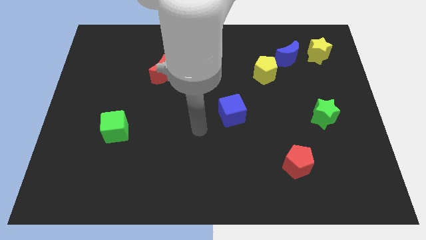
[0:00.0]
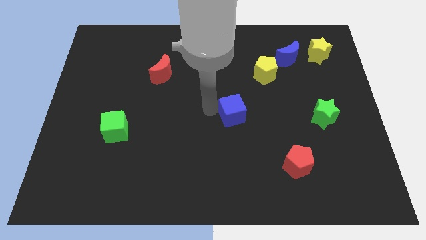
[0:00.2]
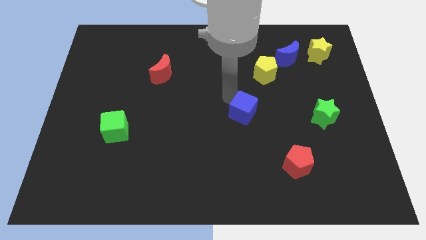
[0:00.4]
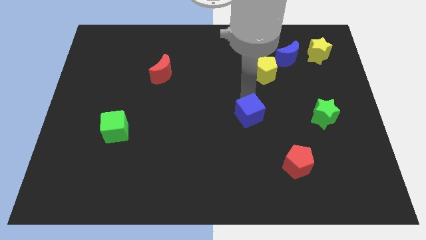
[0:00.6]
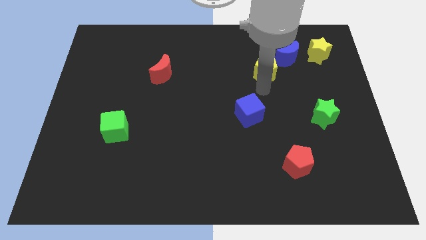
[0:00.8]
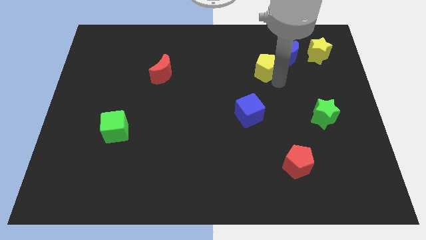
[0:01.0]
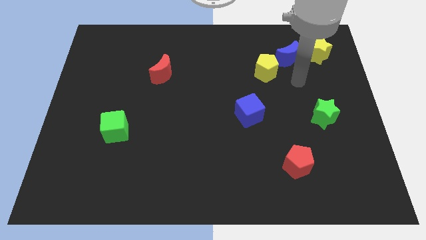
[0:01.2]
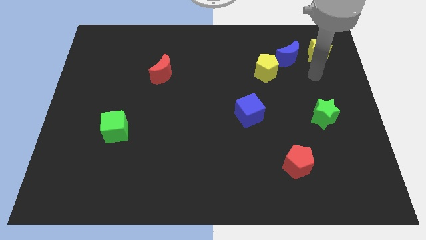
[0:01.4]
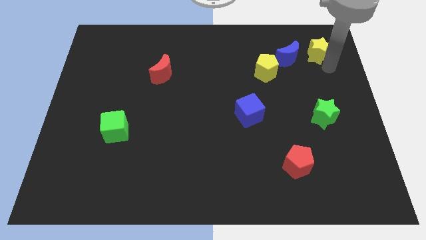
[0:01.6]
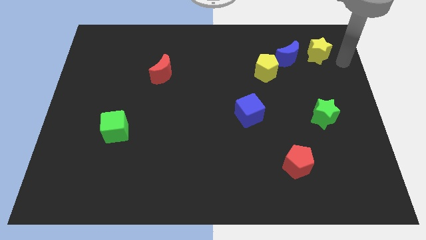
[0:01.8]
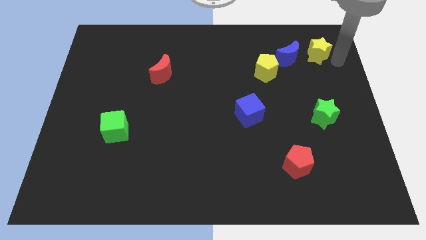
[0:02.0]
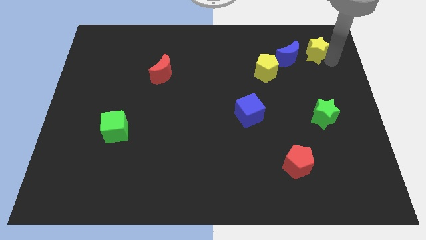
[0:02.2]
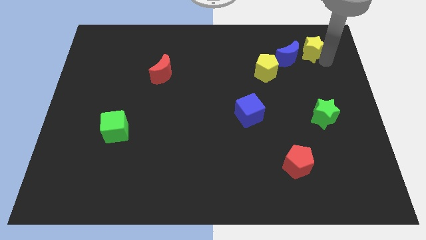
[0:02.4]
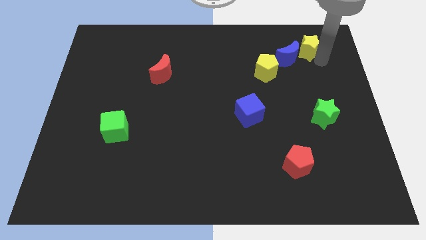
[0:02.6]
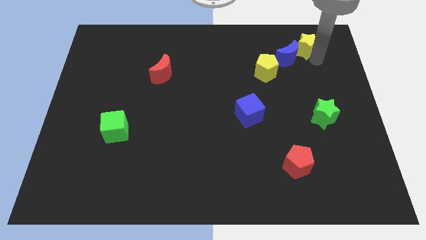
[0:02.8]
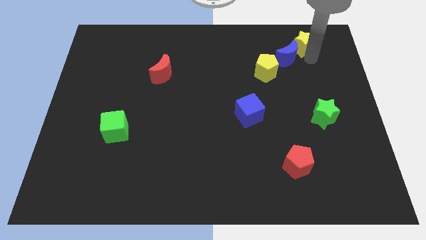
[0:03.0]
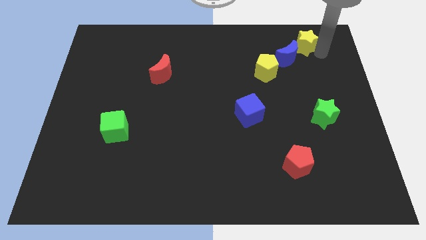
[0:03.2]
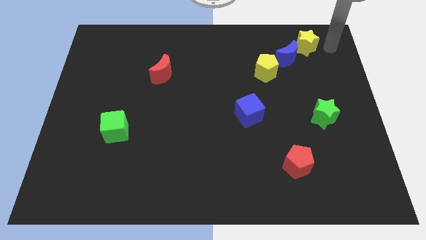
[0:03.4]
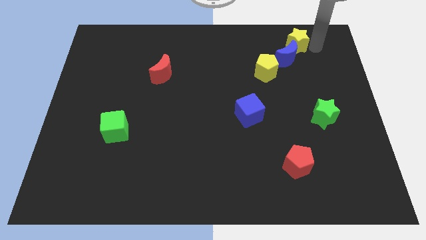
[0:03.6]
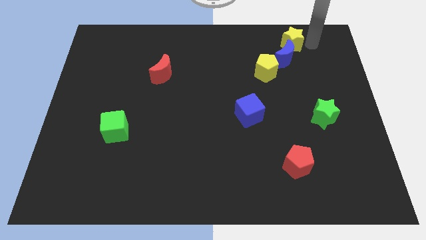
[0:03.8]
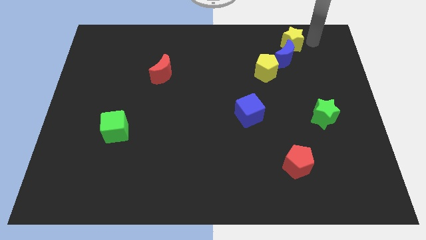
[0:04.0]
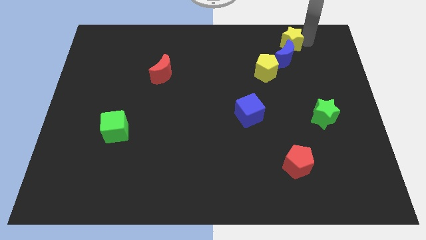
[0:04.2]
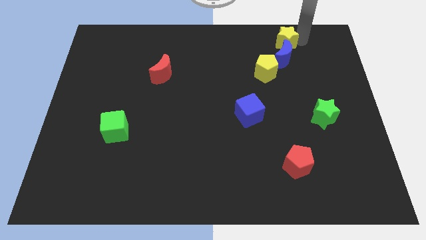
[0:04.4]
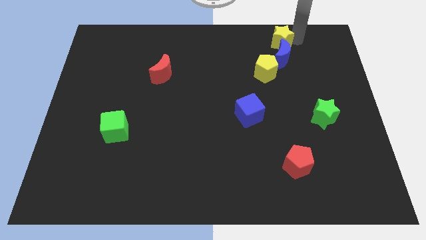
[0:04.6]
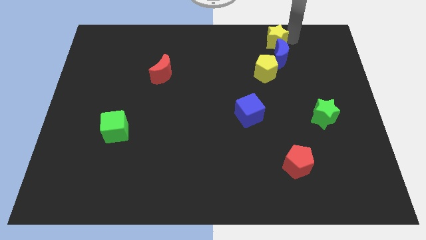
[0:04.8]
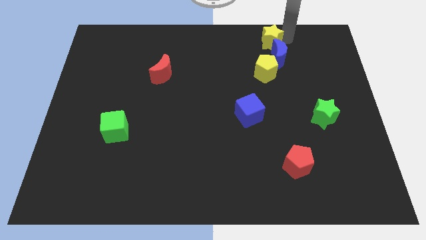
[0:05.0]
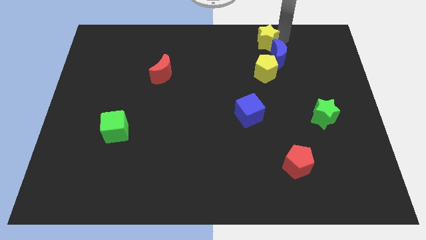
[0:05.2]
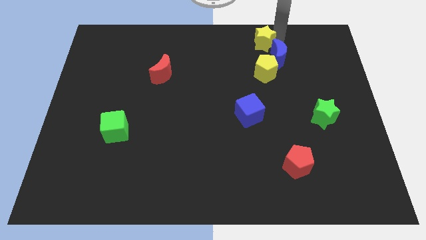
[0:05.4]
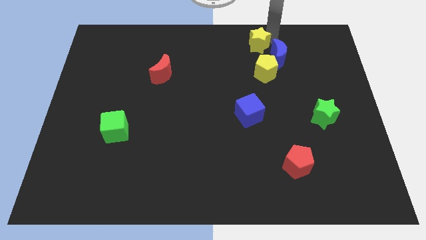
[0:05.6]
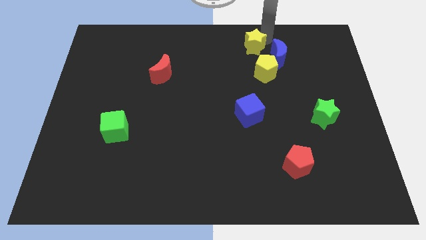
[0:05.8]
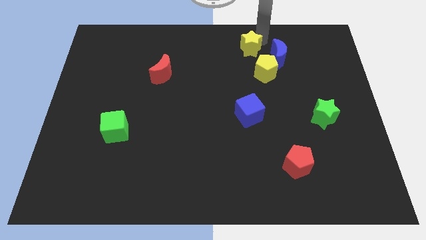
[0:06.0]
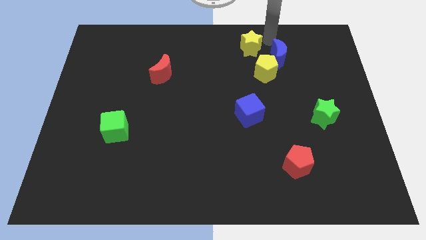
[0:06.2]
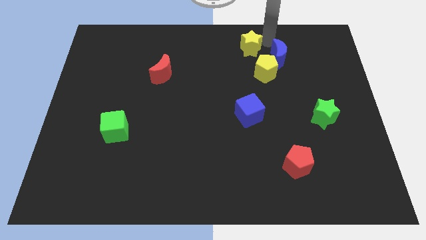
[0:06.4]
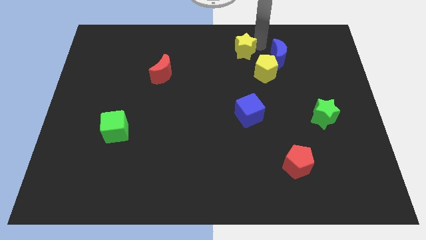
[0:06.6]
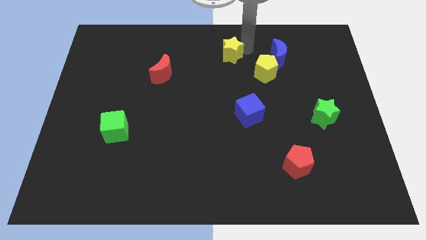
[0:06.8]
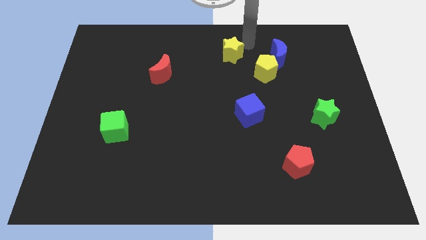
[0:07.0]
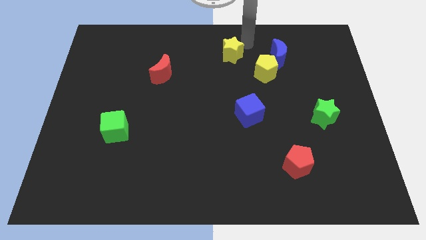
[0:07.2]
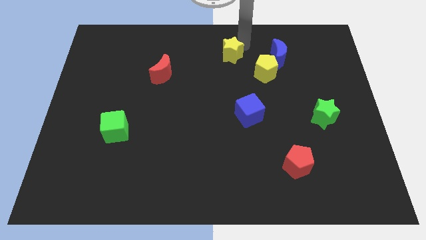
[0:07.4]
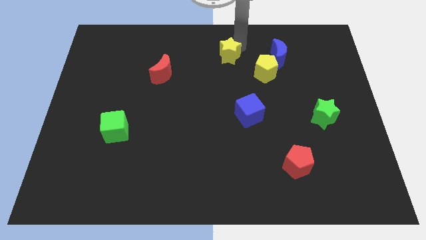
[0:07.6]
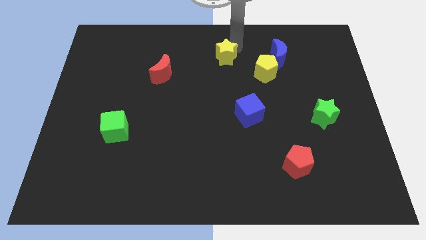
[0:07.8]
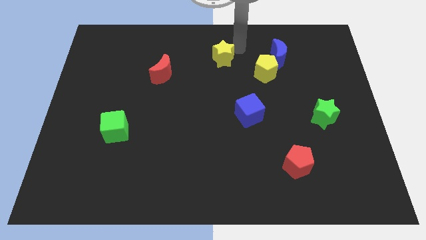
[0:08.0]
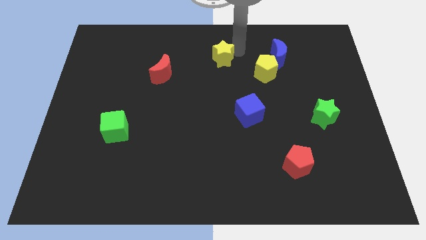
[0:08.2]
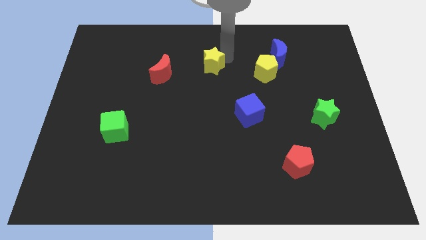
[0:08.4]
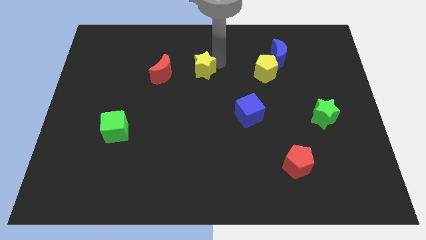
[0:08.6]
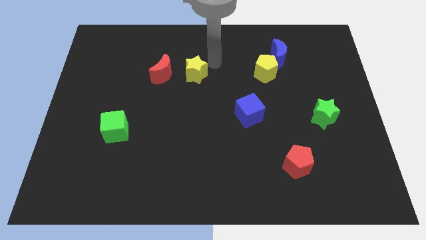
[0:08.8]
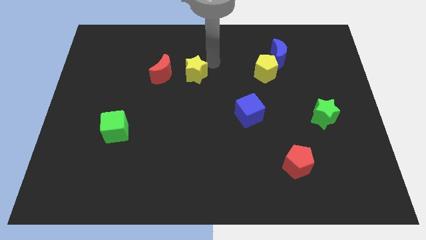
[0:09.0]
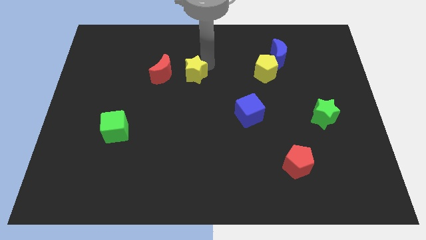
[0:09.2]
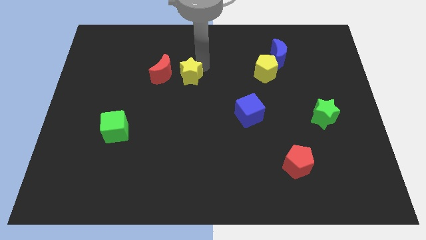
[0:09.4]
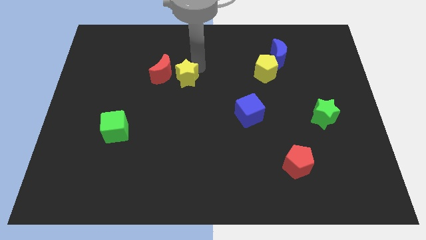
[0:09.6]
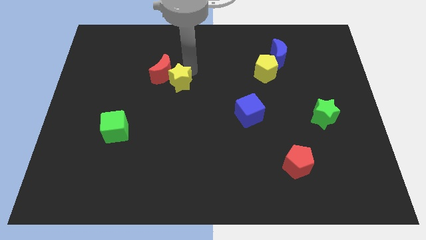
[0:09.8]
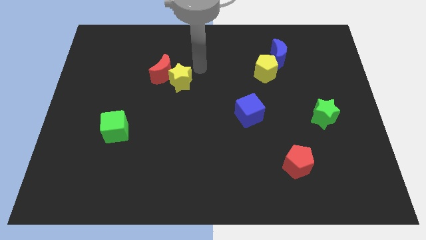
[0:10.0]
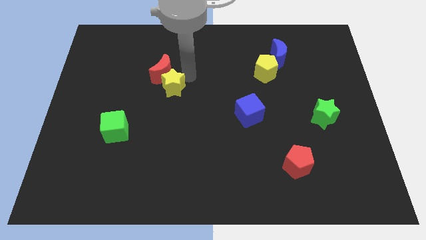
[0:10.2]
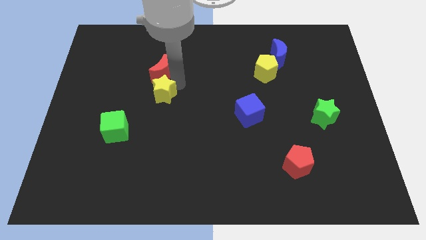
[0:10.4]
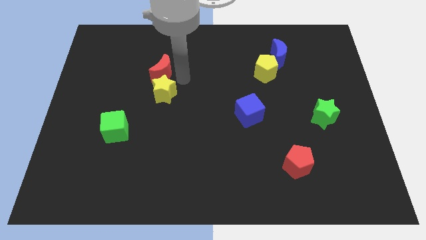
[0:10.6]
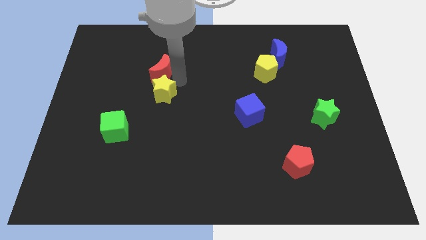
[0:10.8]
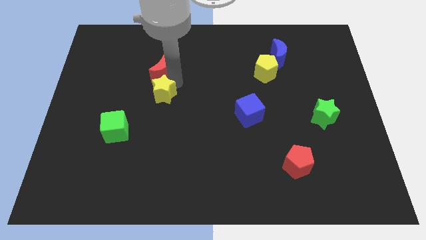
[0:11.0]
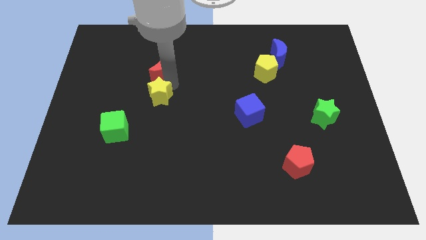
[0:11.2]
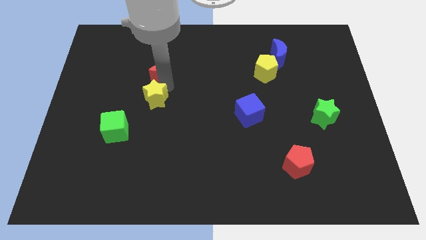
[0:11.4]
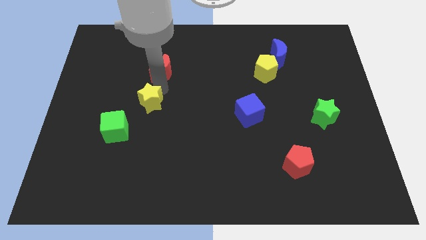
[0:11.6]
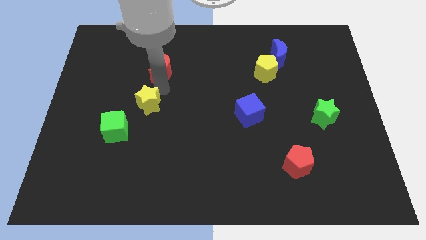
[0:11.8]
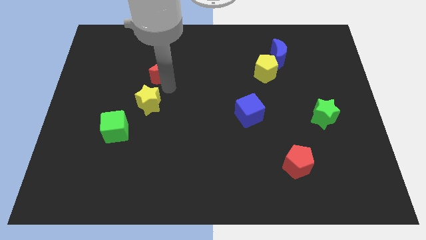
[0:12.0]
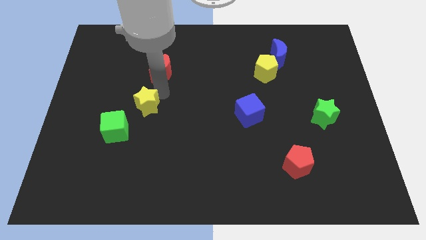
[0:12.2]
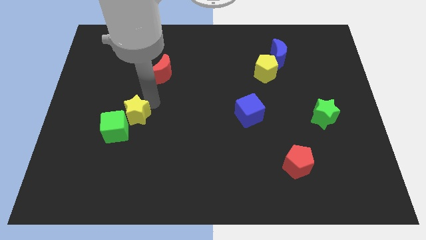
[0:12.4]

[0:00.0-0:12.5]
push the yellow star to the green cube

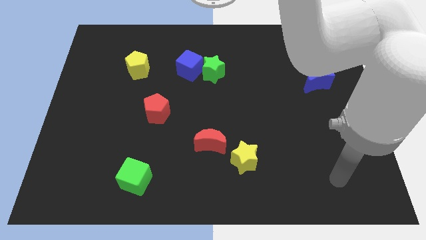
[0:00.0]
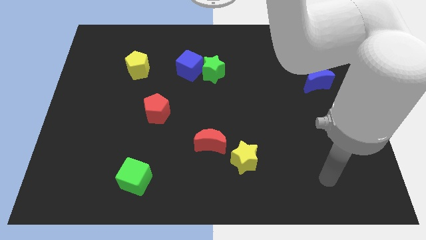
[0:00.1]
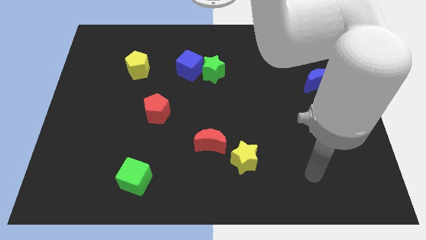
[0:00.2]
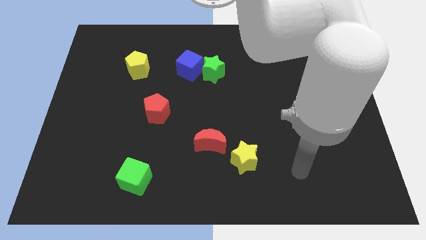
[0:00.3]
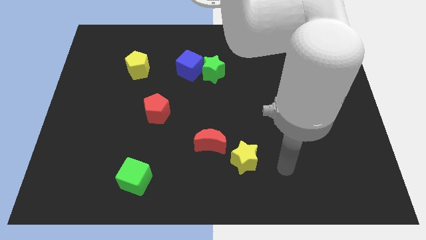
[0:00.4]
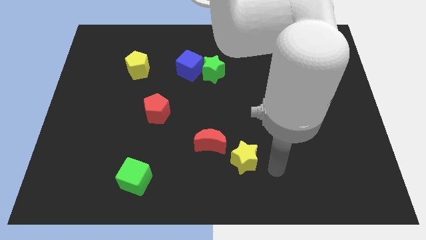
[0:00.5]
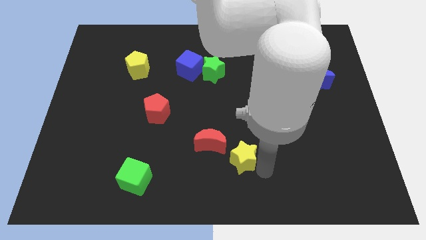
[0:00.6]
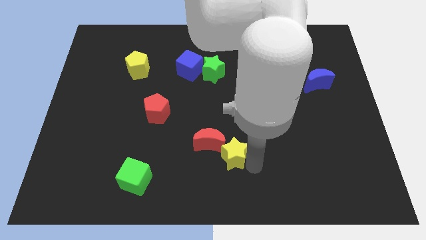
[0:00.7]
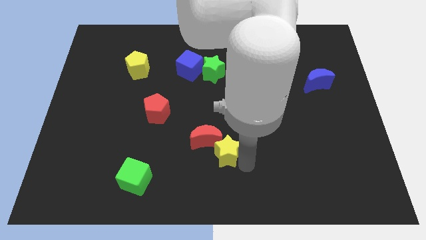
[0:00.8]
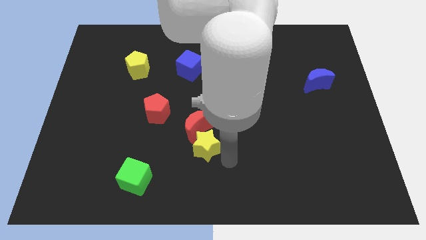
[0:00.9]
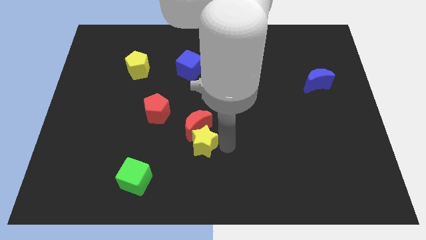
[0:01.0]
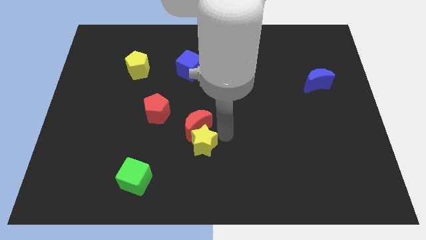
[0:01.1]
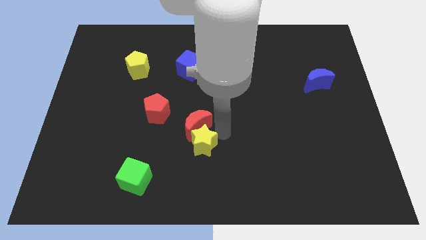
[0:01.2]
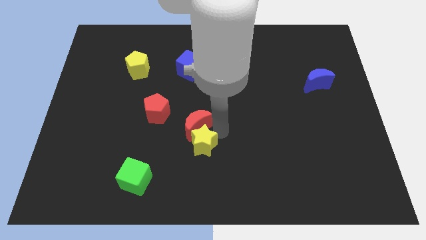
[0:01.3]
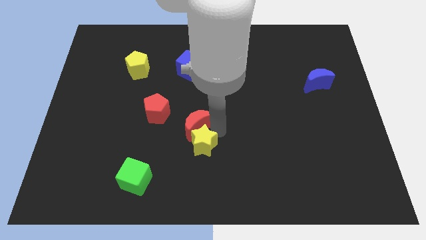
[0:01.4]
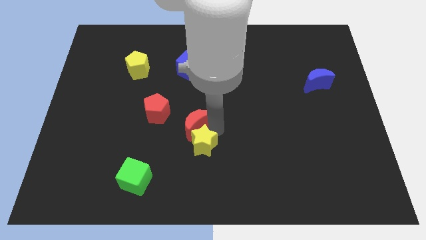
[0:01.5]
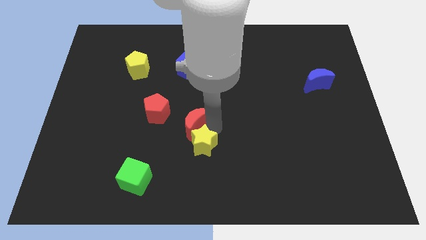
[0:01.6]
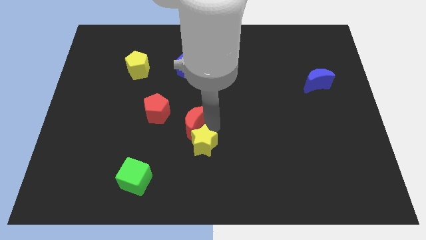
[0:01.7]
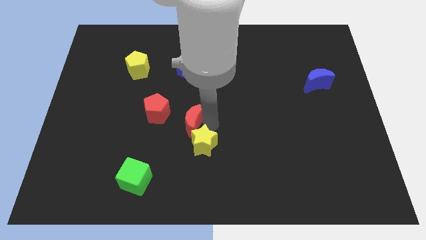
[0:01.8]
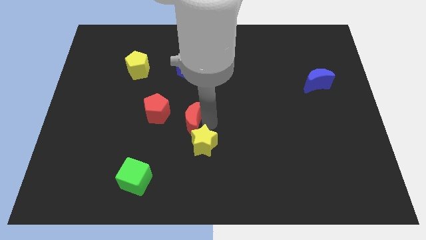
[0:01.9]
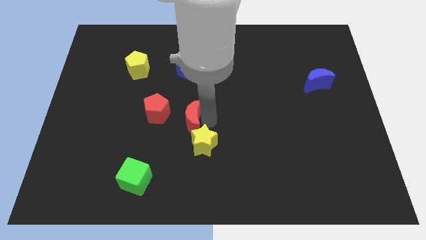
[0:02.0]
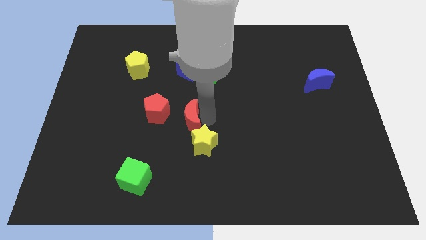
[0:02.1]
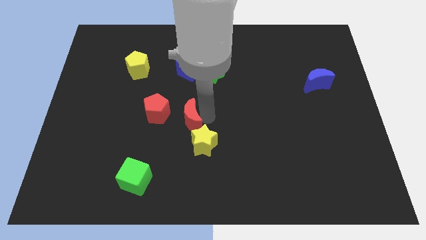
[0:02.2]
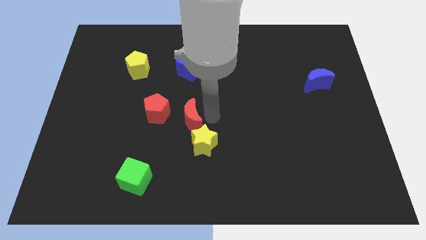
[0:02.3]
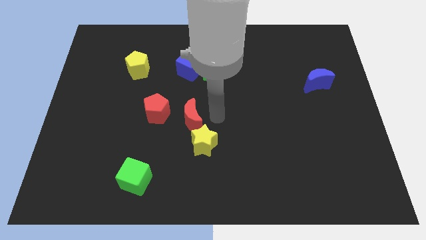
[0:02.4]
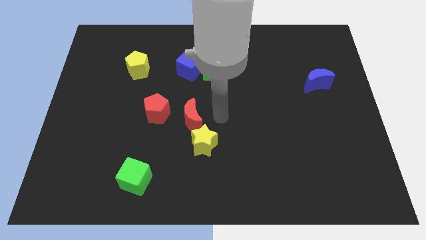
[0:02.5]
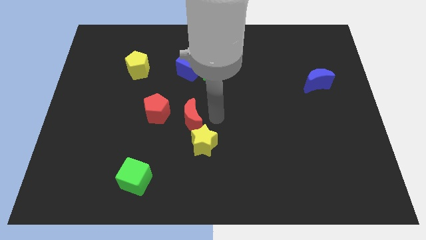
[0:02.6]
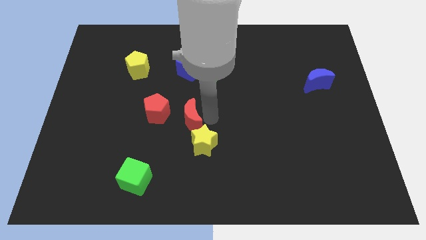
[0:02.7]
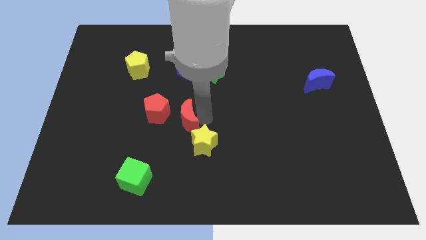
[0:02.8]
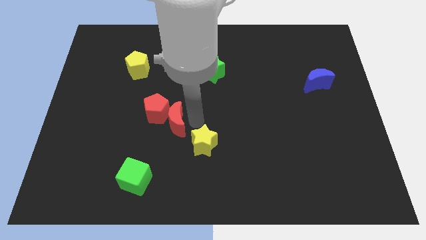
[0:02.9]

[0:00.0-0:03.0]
slide the red moon close to the red pentagon
